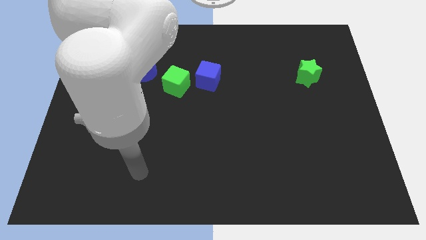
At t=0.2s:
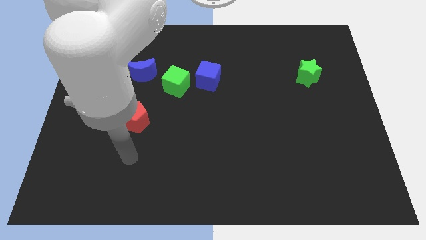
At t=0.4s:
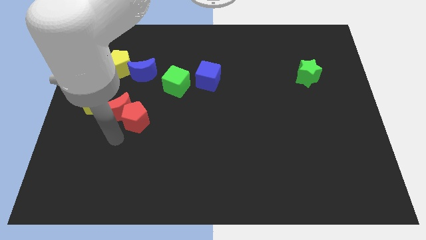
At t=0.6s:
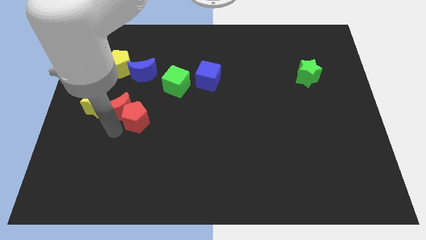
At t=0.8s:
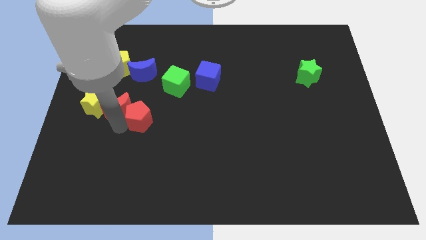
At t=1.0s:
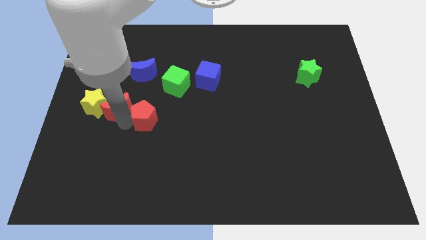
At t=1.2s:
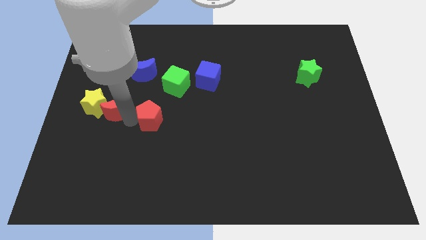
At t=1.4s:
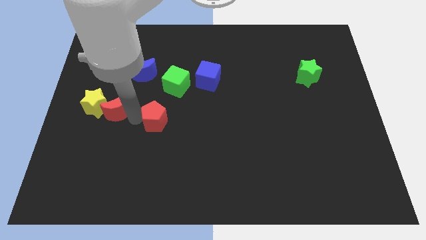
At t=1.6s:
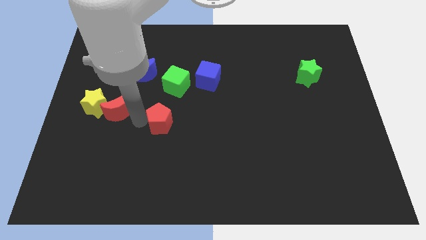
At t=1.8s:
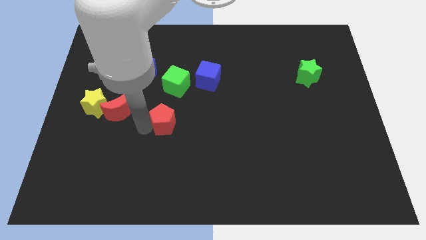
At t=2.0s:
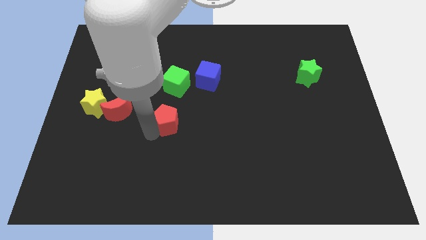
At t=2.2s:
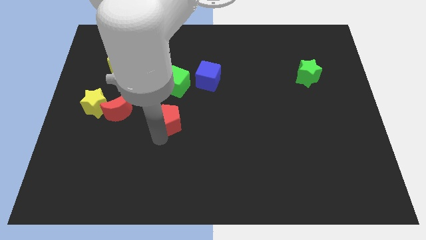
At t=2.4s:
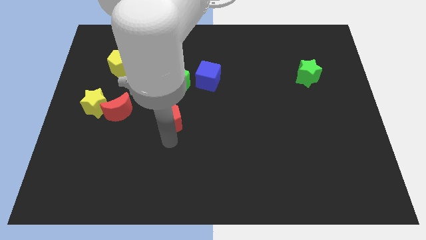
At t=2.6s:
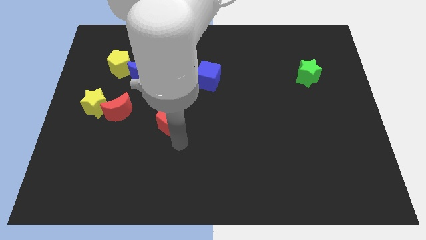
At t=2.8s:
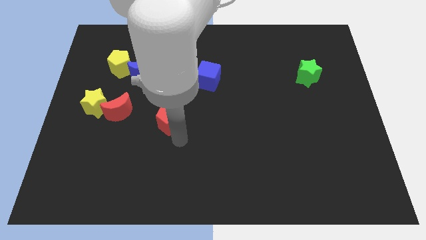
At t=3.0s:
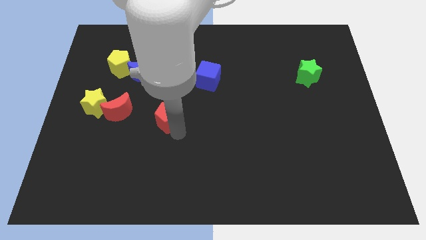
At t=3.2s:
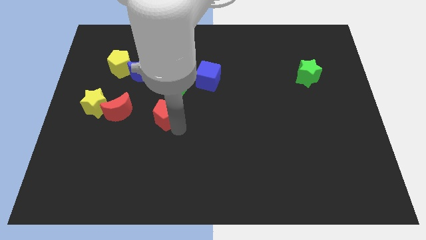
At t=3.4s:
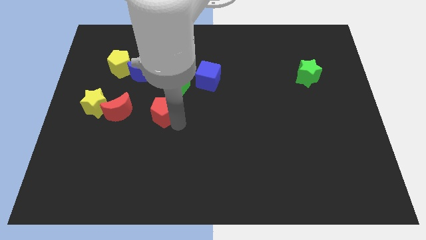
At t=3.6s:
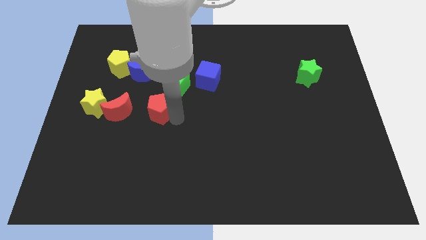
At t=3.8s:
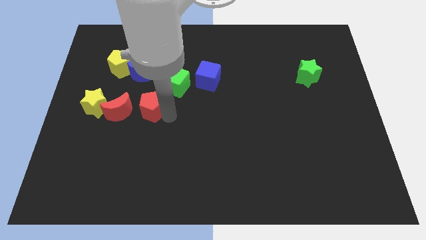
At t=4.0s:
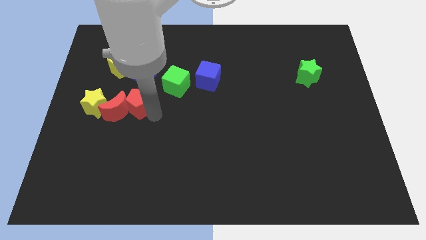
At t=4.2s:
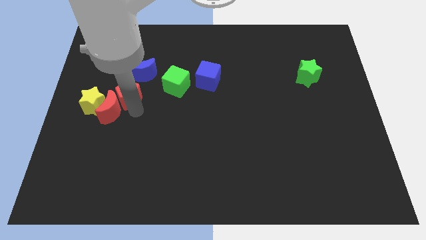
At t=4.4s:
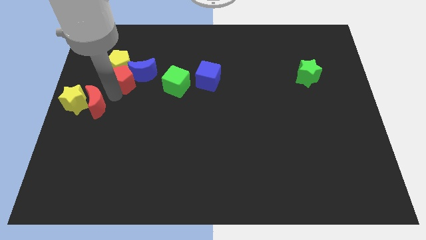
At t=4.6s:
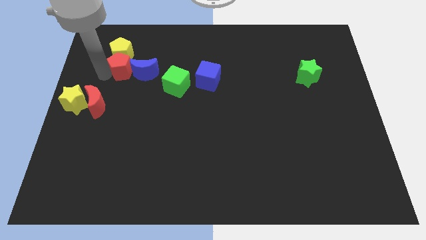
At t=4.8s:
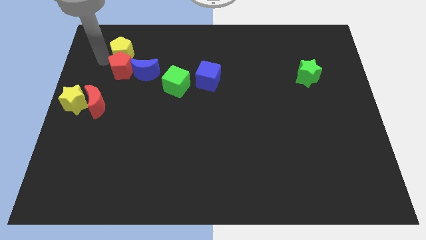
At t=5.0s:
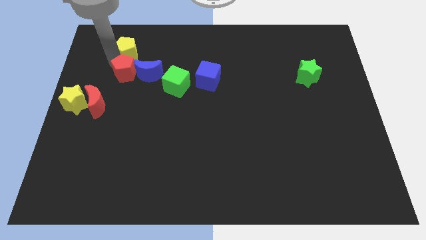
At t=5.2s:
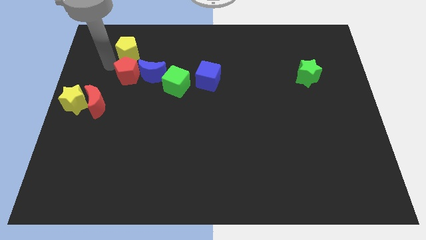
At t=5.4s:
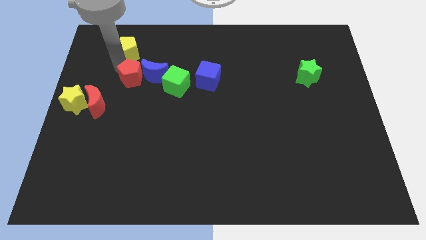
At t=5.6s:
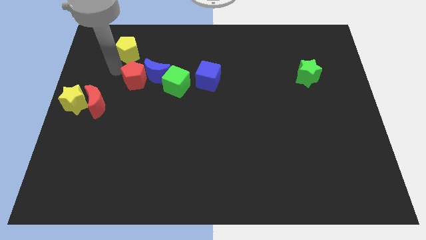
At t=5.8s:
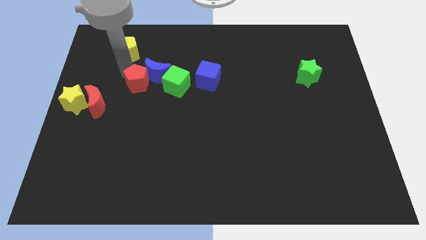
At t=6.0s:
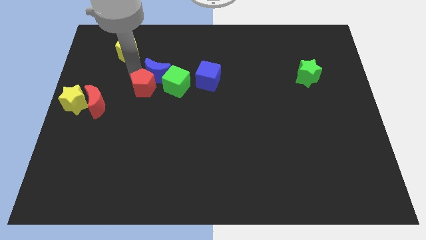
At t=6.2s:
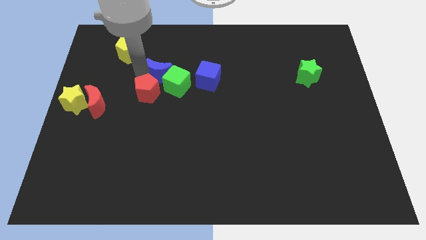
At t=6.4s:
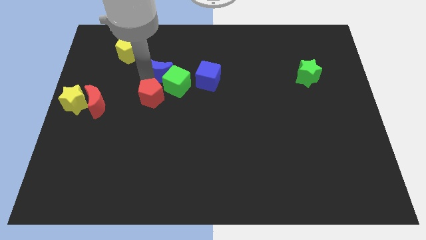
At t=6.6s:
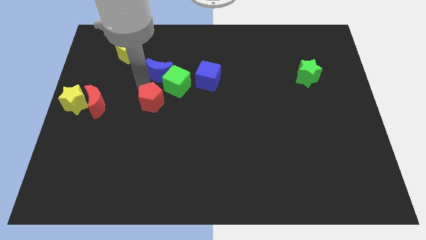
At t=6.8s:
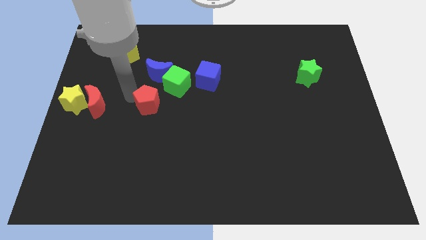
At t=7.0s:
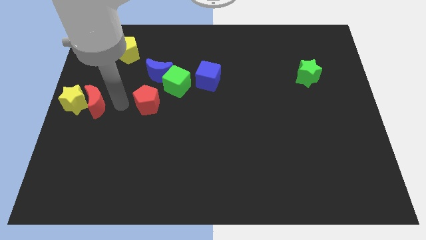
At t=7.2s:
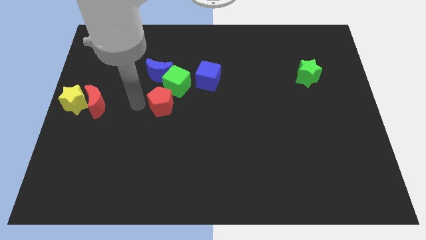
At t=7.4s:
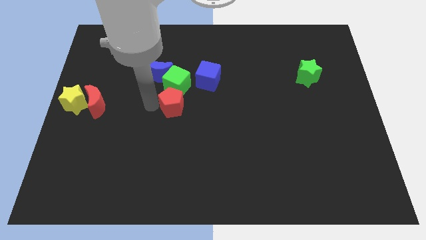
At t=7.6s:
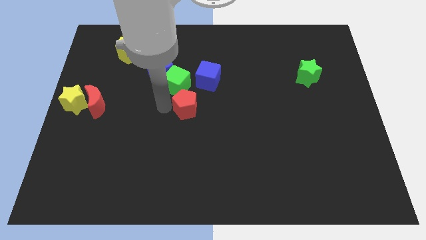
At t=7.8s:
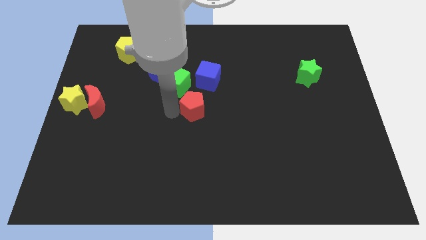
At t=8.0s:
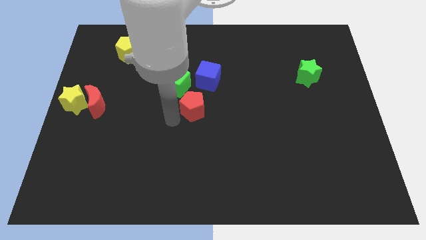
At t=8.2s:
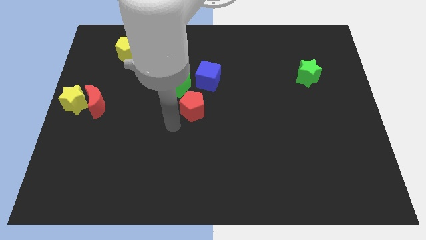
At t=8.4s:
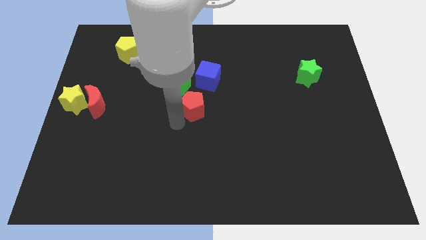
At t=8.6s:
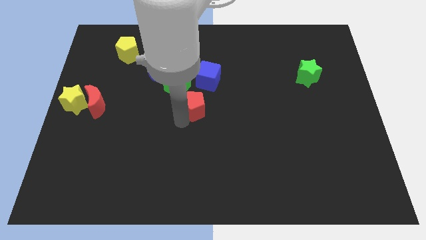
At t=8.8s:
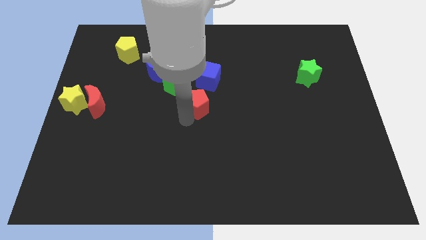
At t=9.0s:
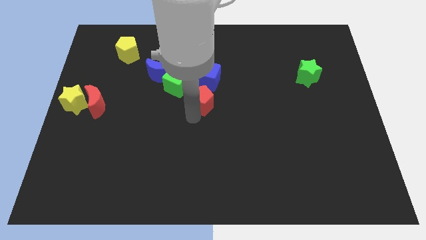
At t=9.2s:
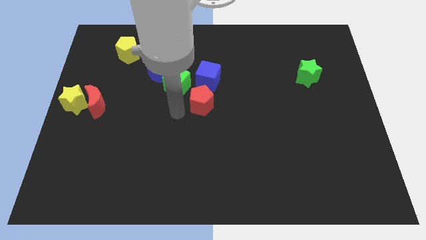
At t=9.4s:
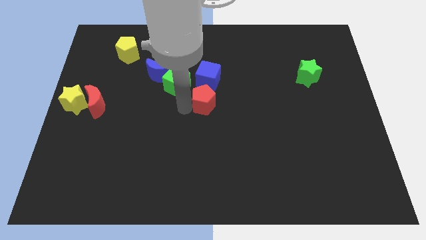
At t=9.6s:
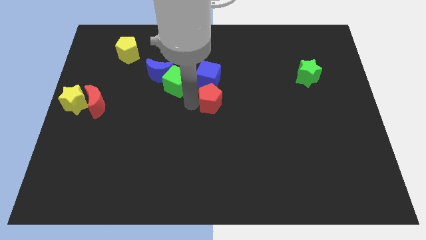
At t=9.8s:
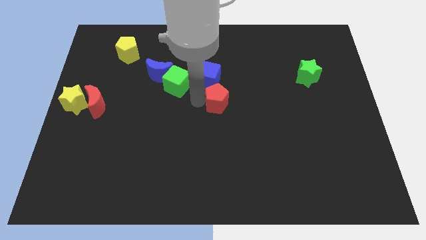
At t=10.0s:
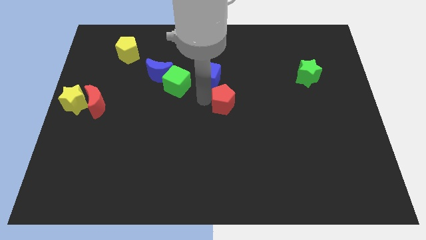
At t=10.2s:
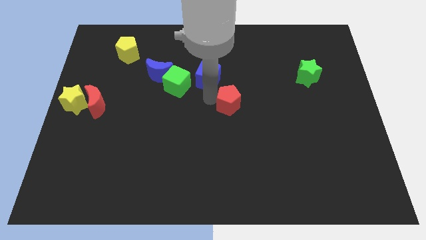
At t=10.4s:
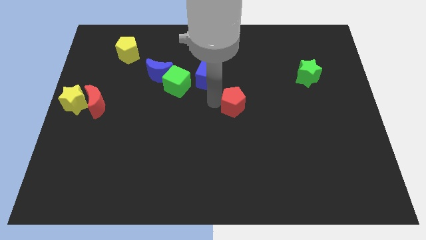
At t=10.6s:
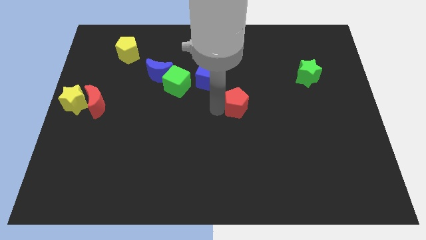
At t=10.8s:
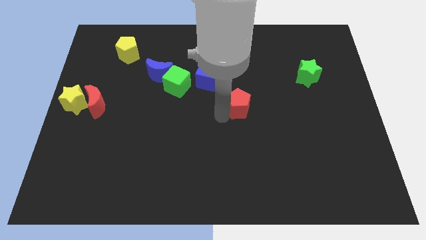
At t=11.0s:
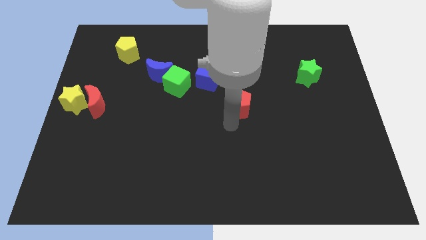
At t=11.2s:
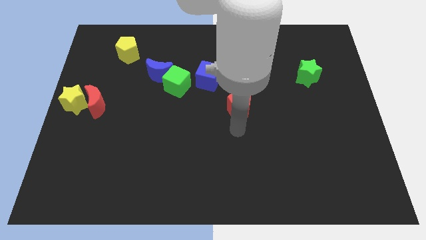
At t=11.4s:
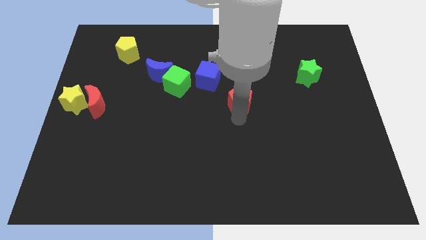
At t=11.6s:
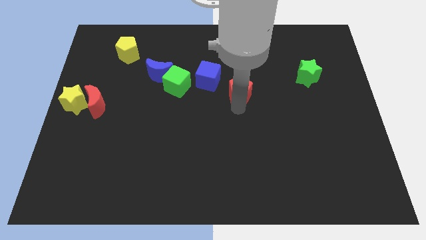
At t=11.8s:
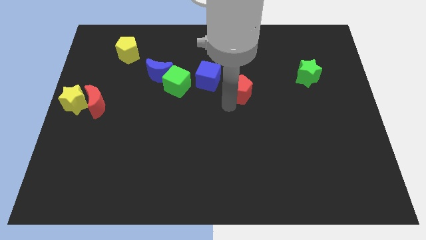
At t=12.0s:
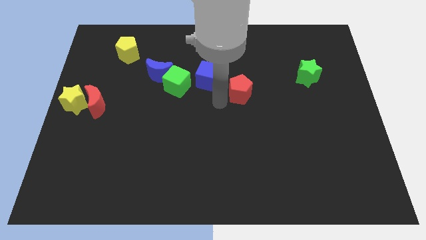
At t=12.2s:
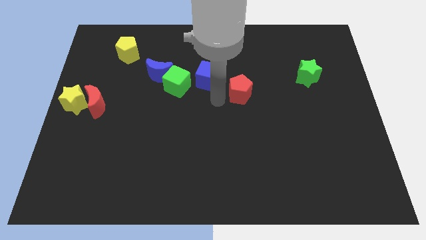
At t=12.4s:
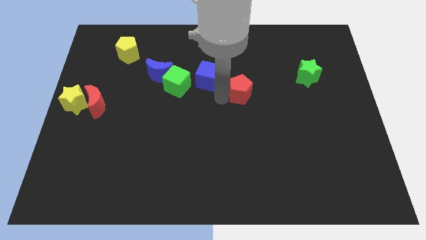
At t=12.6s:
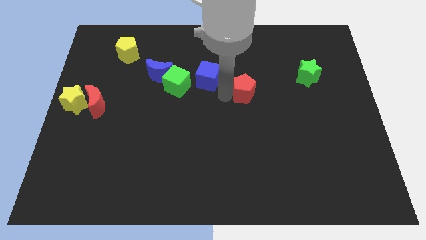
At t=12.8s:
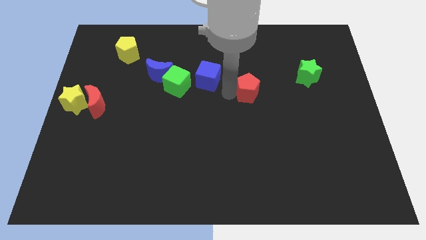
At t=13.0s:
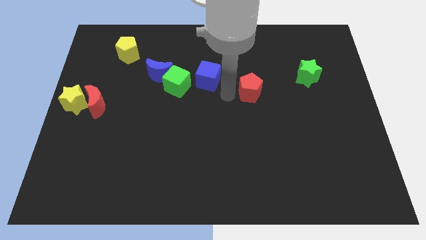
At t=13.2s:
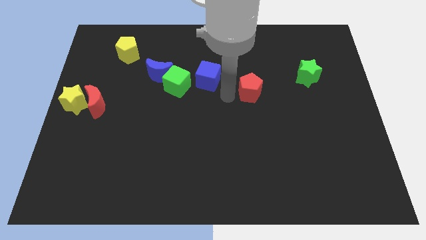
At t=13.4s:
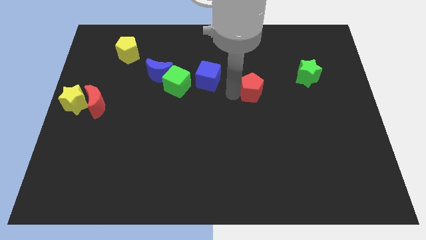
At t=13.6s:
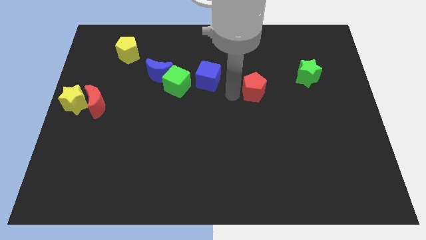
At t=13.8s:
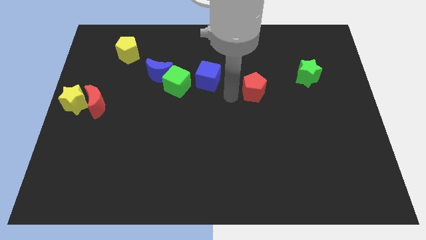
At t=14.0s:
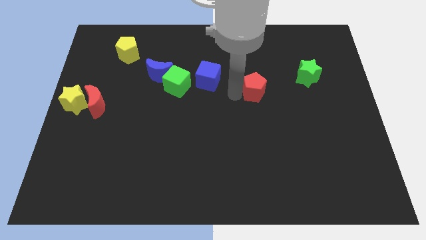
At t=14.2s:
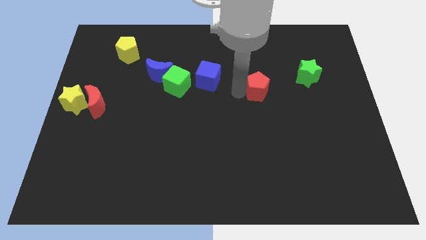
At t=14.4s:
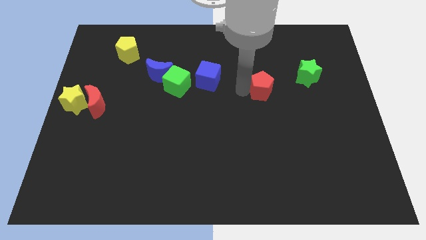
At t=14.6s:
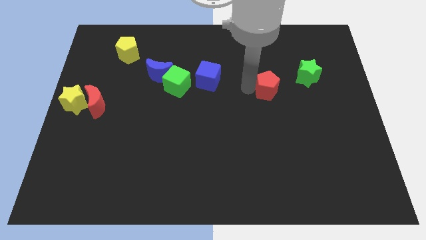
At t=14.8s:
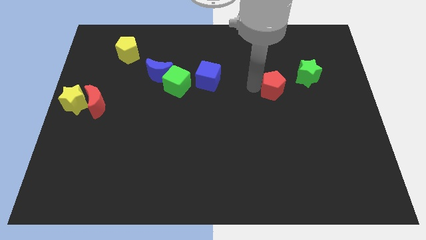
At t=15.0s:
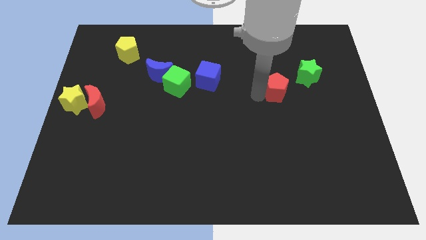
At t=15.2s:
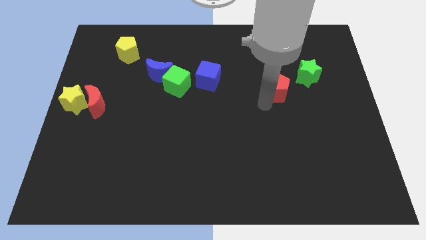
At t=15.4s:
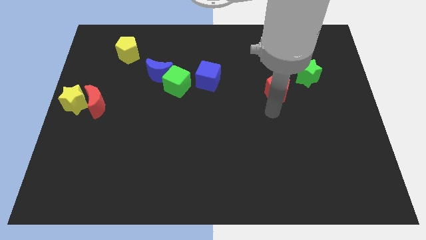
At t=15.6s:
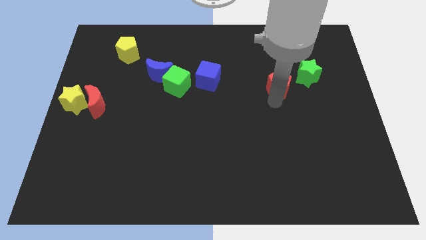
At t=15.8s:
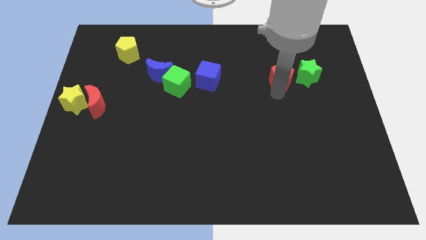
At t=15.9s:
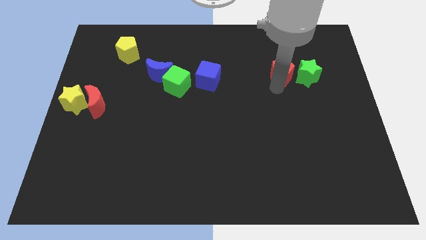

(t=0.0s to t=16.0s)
put the red pentagon towards the green star
